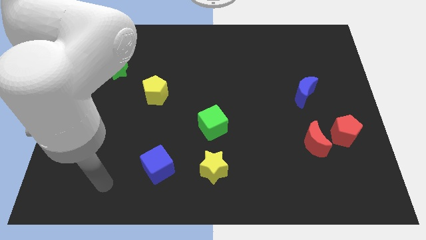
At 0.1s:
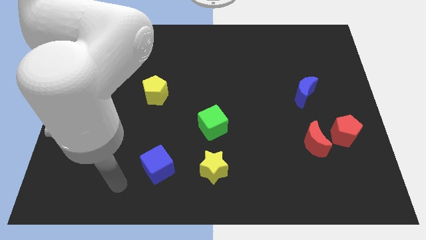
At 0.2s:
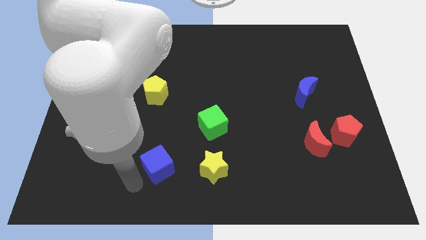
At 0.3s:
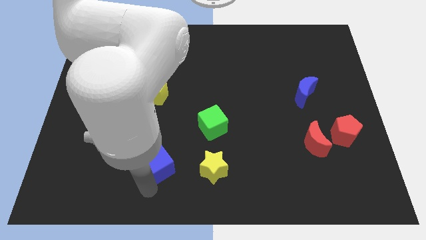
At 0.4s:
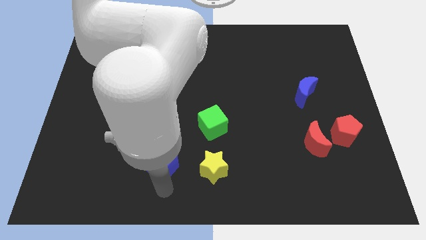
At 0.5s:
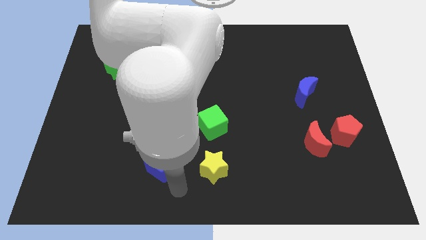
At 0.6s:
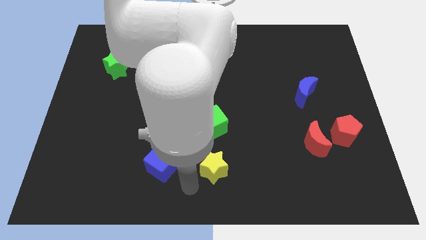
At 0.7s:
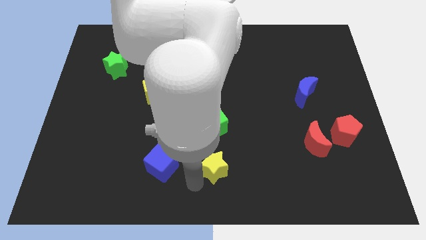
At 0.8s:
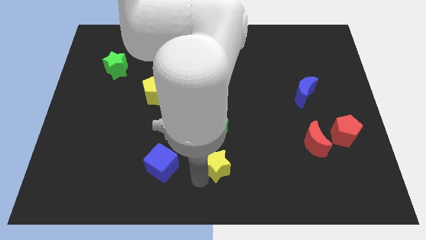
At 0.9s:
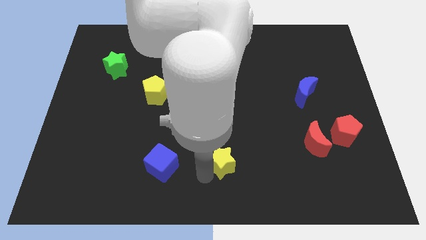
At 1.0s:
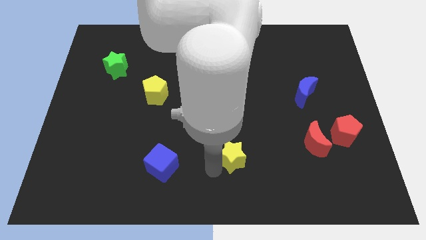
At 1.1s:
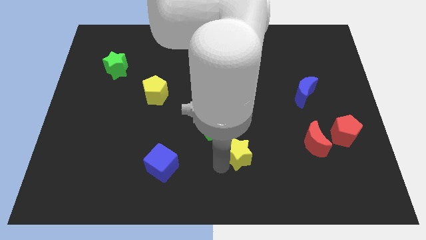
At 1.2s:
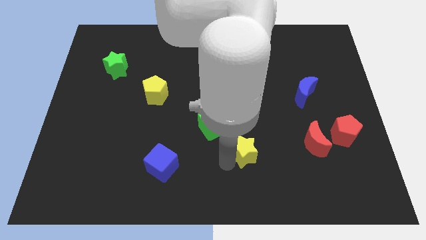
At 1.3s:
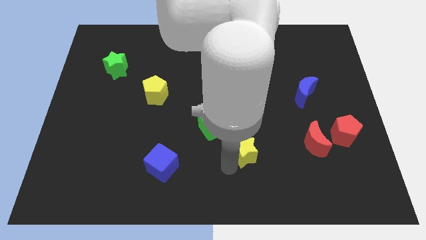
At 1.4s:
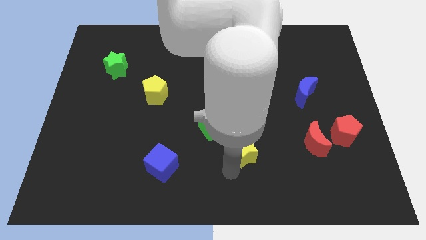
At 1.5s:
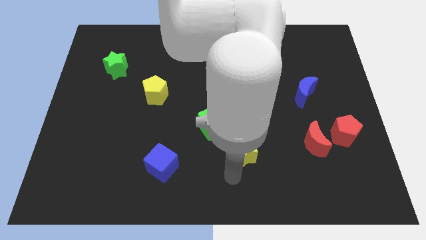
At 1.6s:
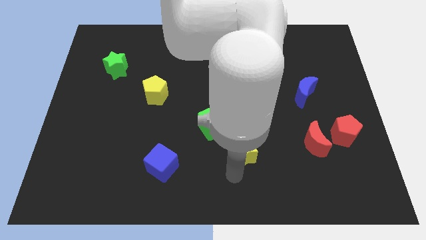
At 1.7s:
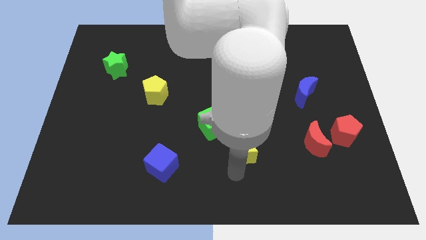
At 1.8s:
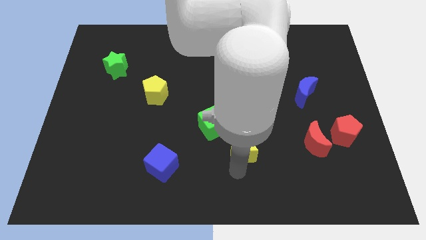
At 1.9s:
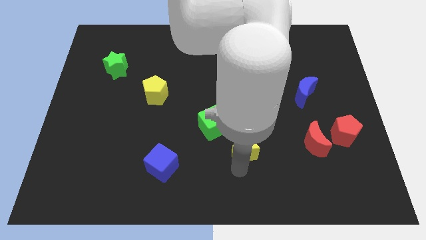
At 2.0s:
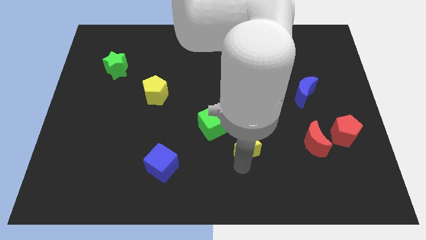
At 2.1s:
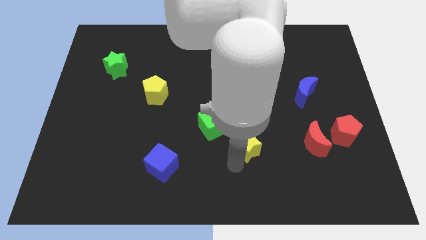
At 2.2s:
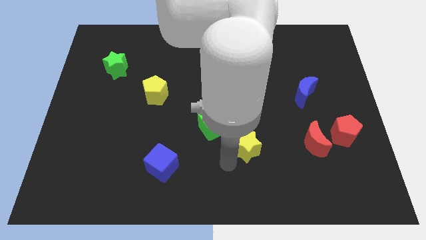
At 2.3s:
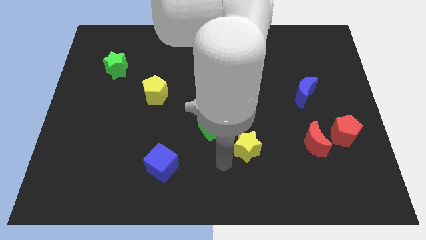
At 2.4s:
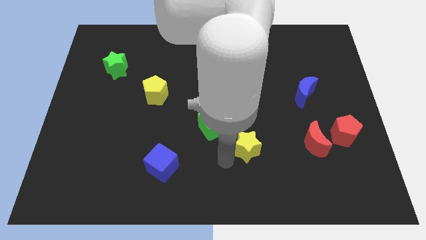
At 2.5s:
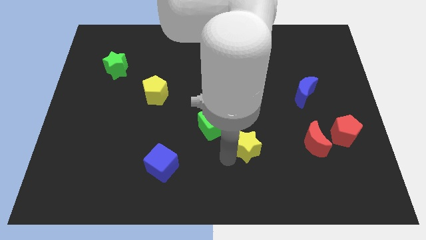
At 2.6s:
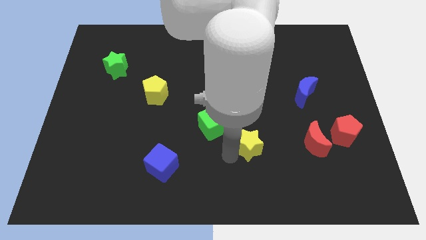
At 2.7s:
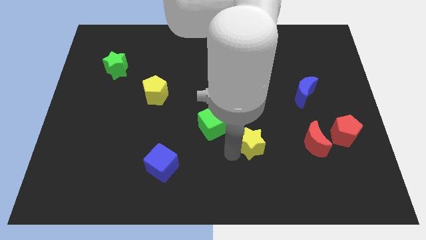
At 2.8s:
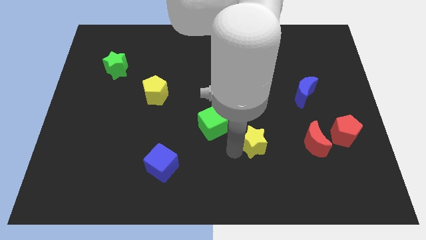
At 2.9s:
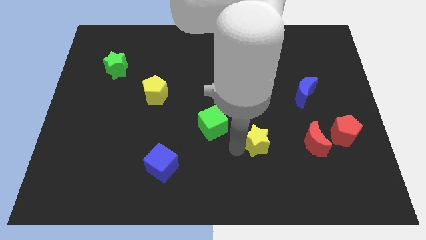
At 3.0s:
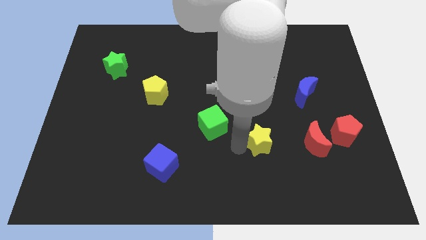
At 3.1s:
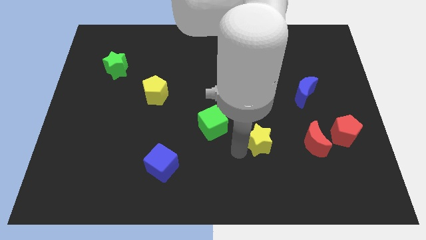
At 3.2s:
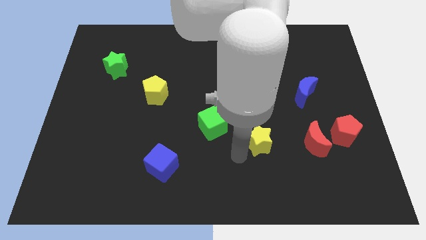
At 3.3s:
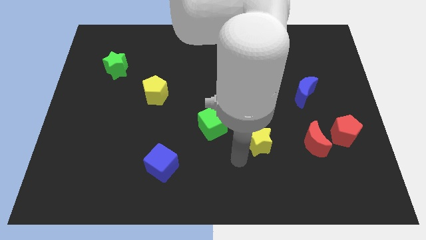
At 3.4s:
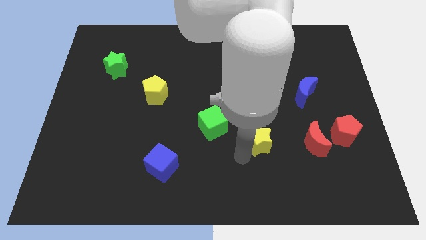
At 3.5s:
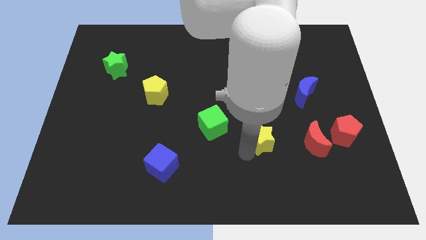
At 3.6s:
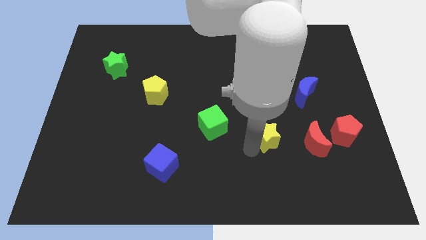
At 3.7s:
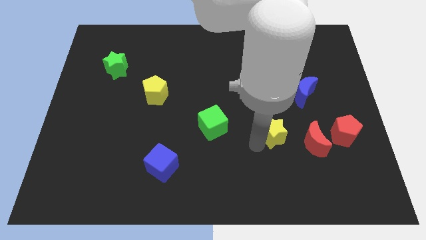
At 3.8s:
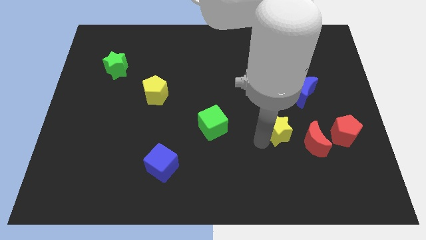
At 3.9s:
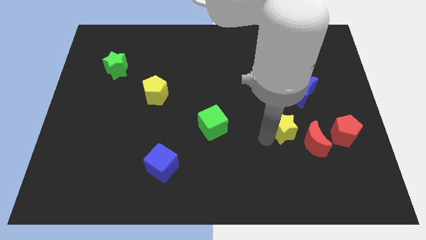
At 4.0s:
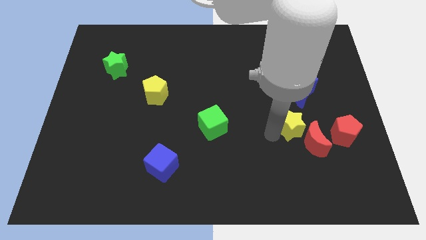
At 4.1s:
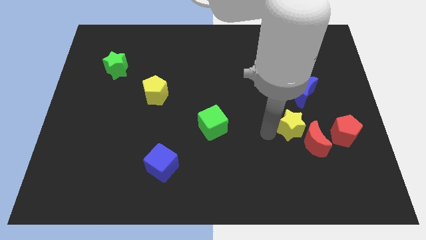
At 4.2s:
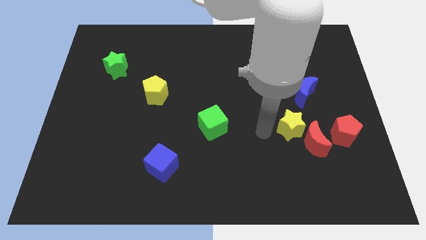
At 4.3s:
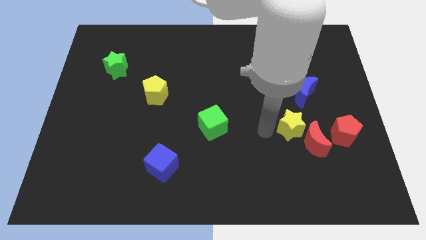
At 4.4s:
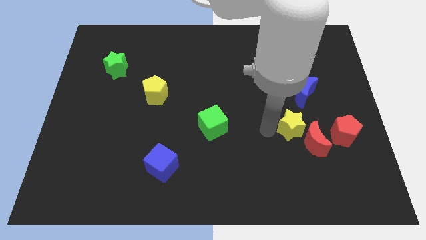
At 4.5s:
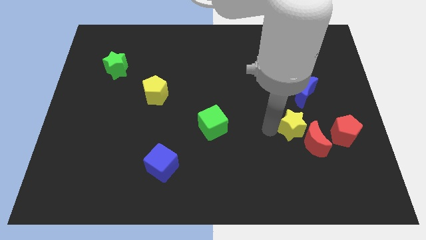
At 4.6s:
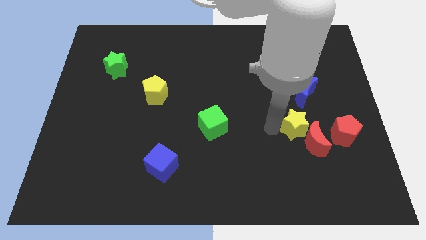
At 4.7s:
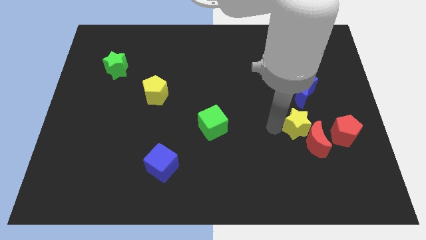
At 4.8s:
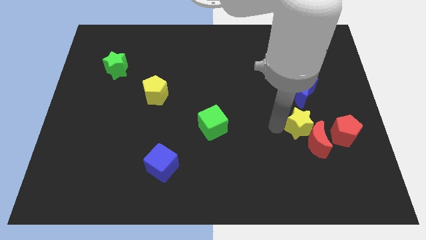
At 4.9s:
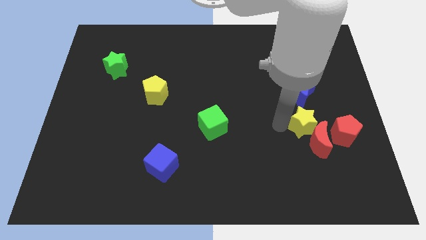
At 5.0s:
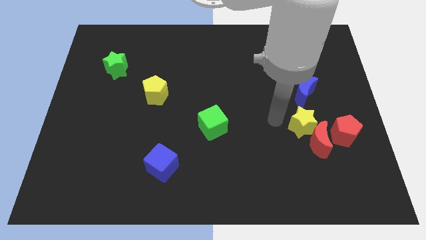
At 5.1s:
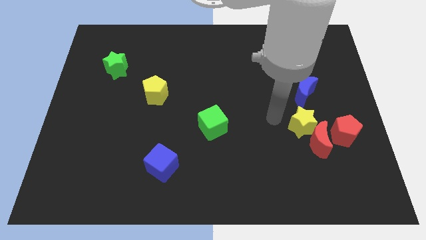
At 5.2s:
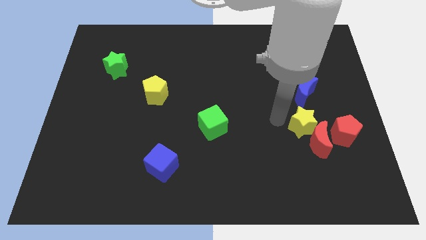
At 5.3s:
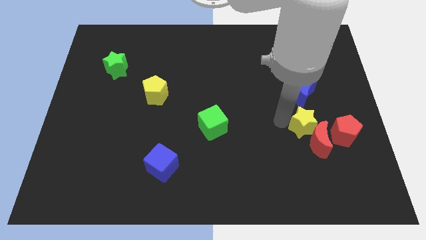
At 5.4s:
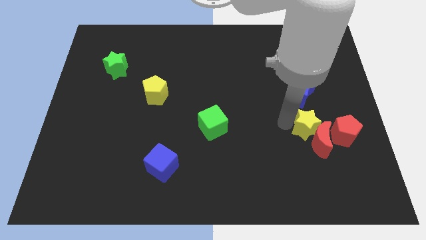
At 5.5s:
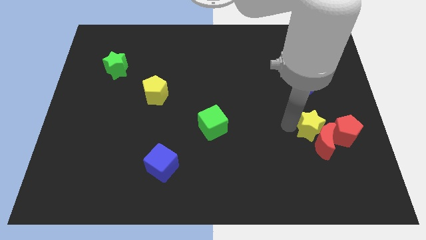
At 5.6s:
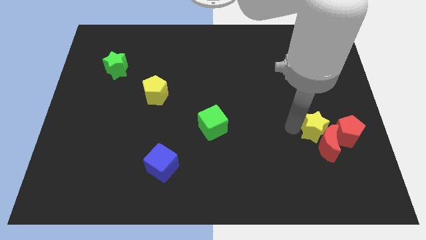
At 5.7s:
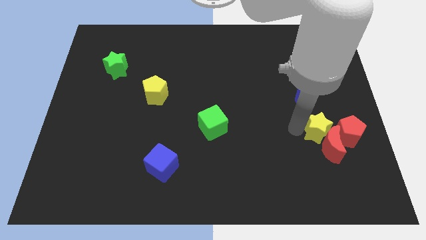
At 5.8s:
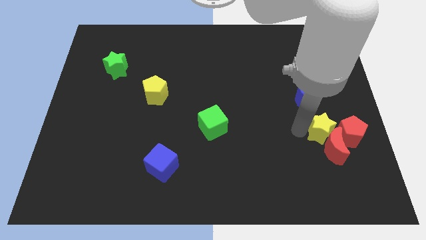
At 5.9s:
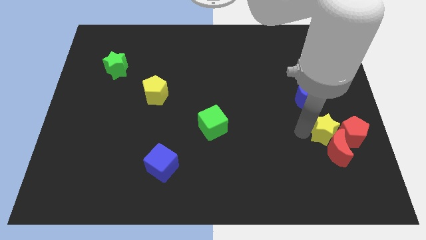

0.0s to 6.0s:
move the yellow star towards the red pentagon
